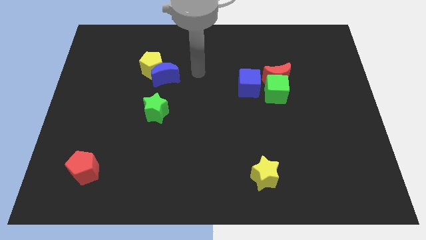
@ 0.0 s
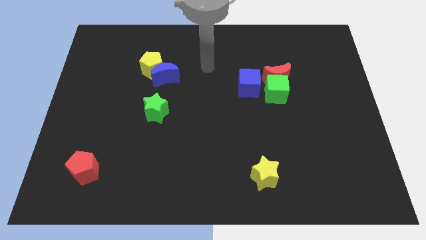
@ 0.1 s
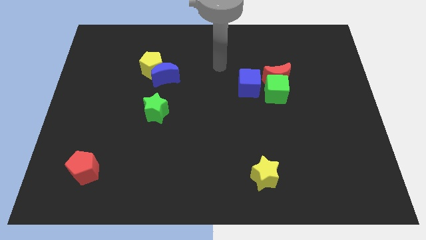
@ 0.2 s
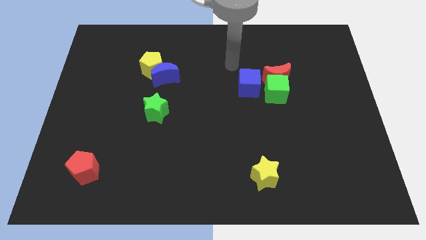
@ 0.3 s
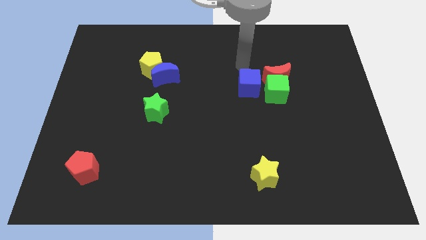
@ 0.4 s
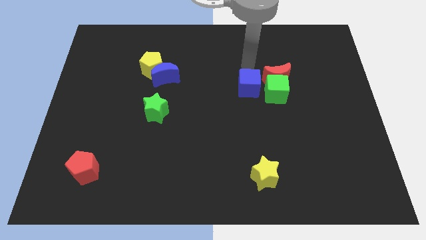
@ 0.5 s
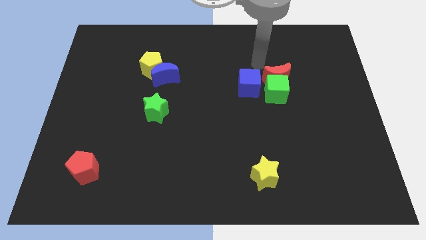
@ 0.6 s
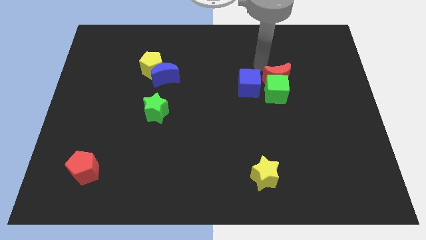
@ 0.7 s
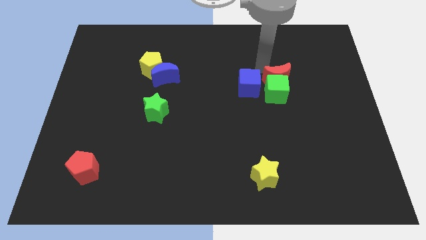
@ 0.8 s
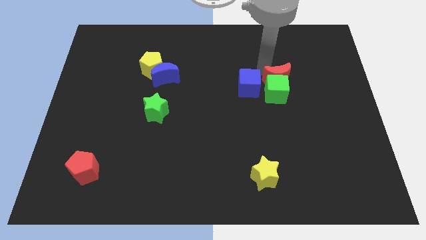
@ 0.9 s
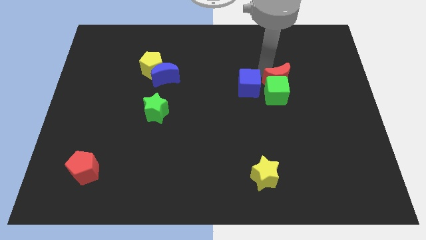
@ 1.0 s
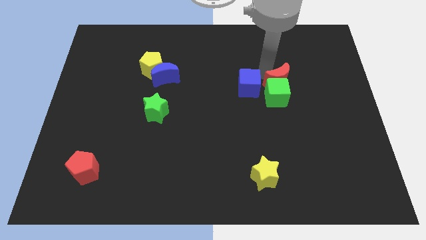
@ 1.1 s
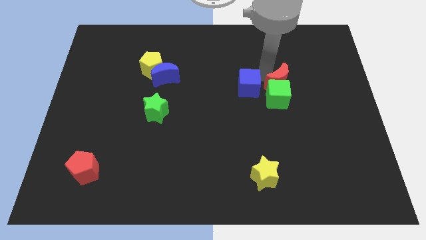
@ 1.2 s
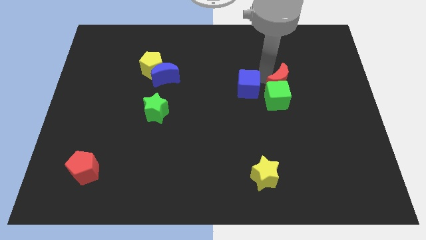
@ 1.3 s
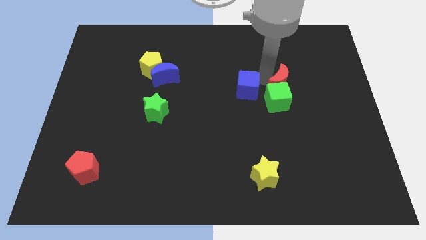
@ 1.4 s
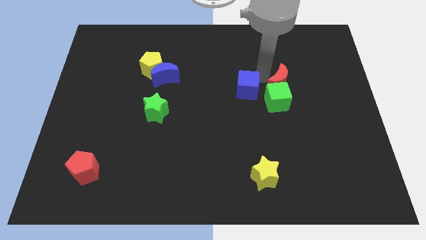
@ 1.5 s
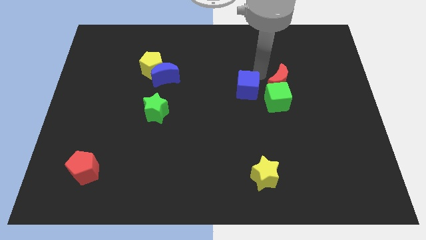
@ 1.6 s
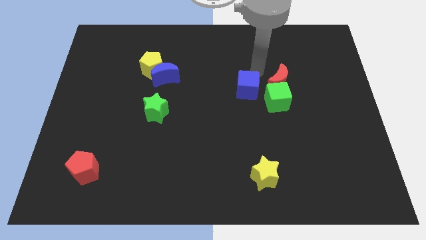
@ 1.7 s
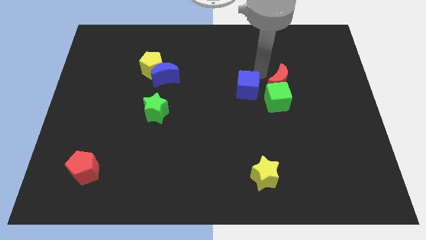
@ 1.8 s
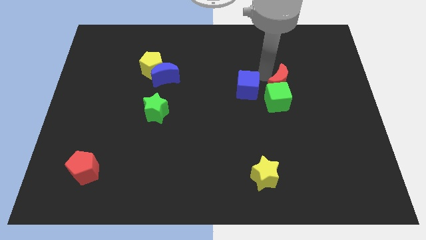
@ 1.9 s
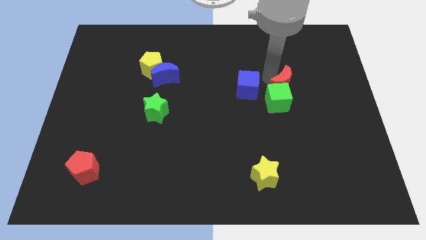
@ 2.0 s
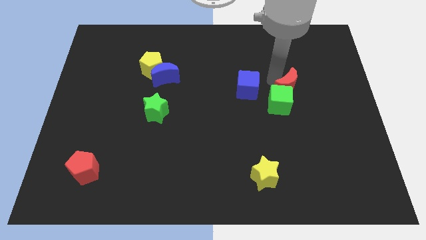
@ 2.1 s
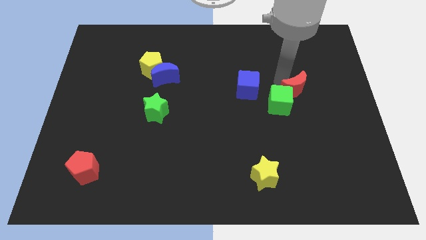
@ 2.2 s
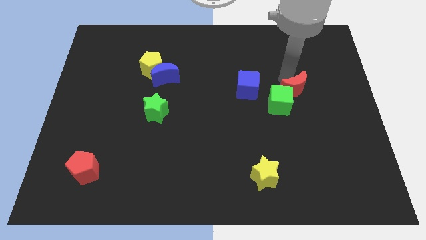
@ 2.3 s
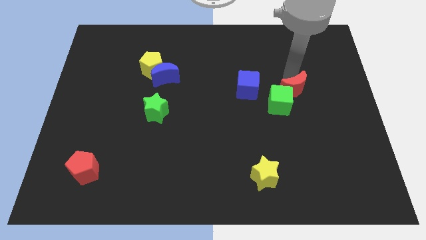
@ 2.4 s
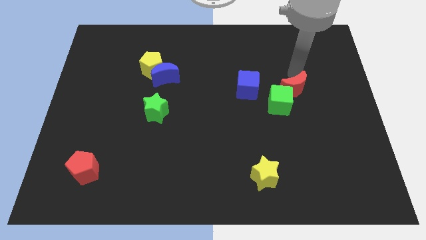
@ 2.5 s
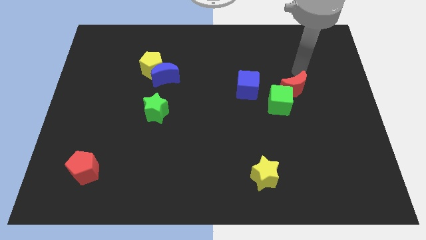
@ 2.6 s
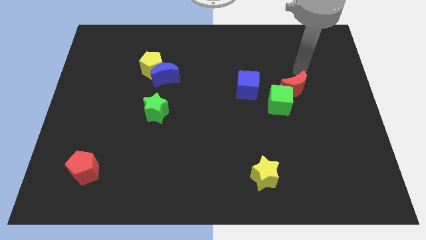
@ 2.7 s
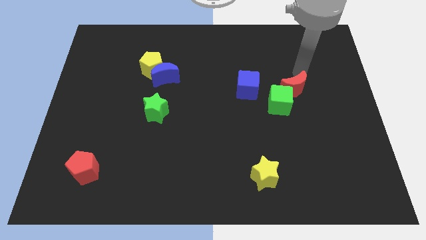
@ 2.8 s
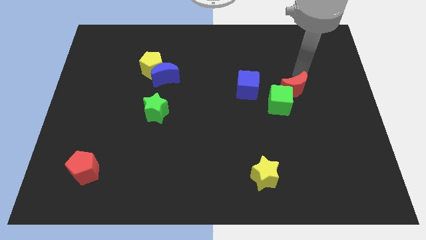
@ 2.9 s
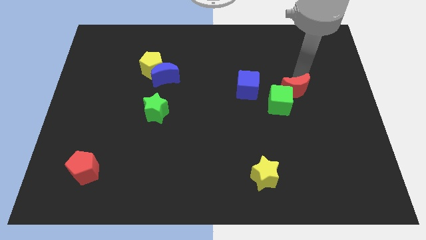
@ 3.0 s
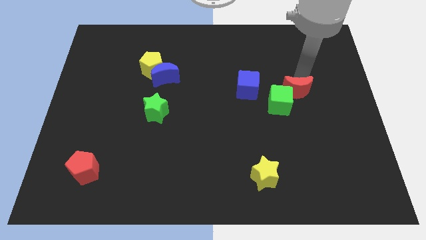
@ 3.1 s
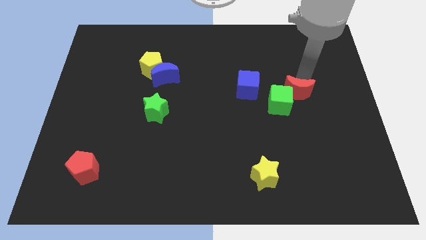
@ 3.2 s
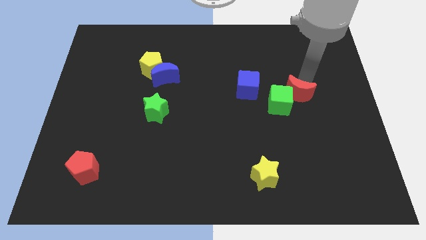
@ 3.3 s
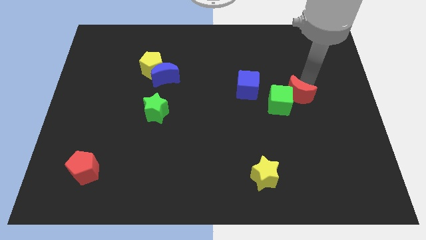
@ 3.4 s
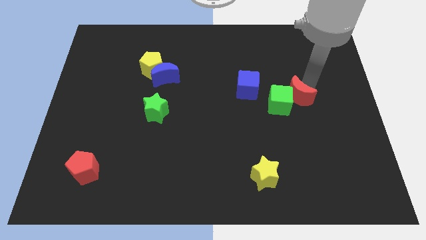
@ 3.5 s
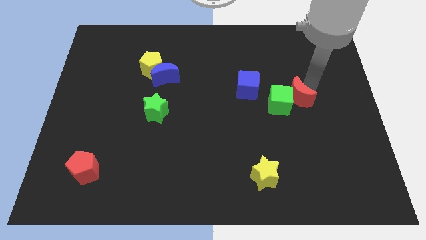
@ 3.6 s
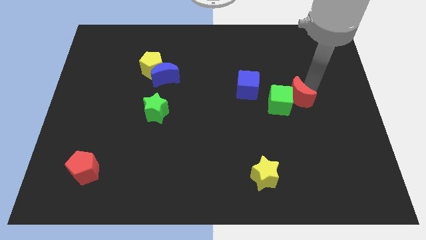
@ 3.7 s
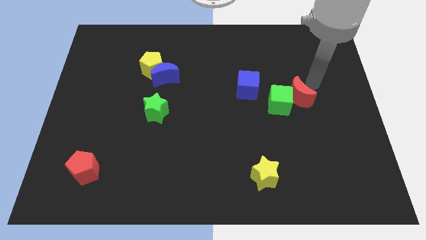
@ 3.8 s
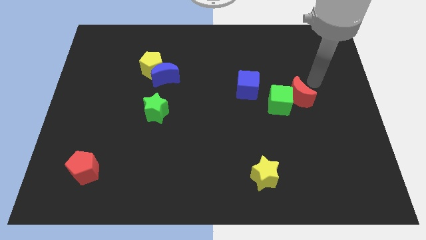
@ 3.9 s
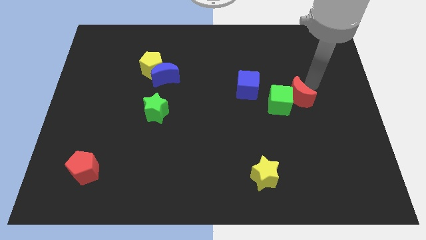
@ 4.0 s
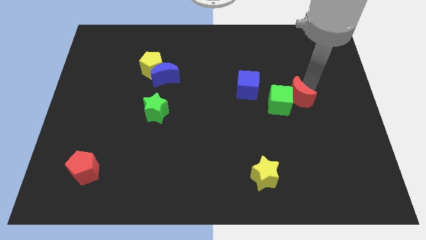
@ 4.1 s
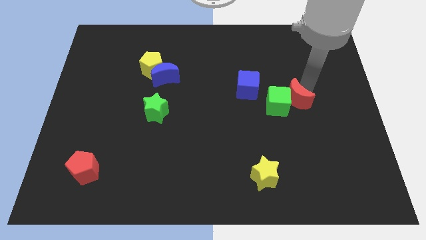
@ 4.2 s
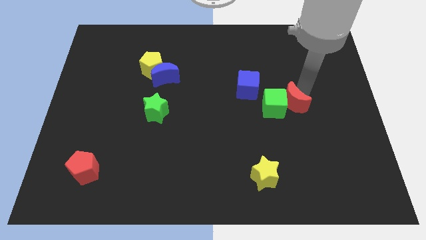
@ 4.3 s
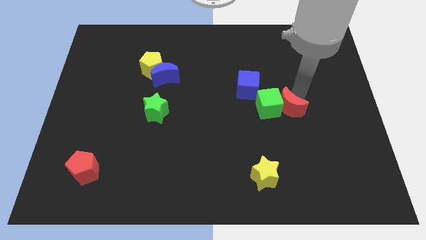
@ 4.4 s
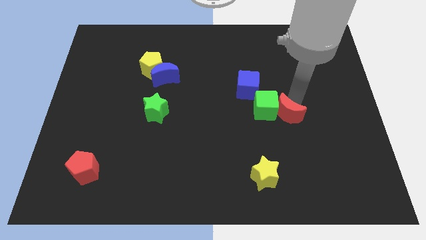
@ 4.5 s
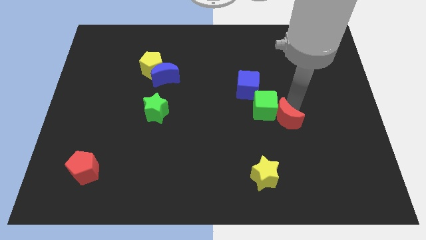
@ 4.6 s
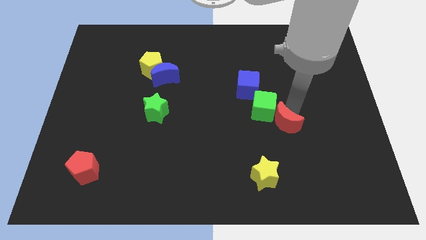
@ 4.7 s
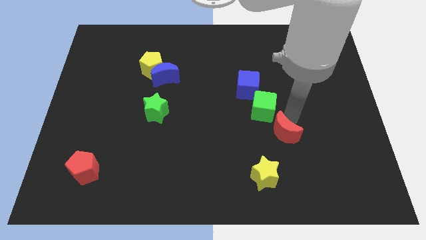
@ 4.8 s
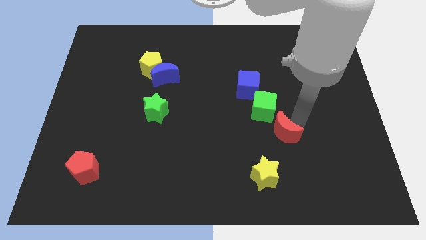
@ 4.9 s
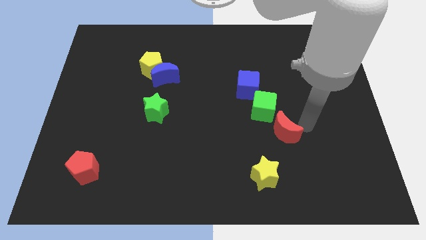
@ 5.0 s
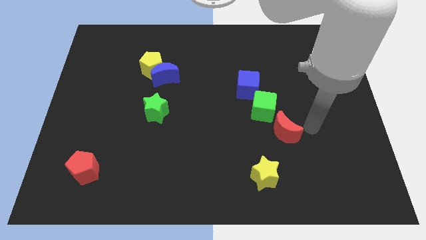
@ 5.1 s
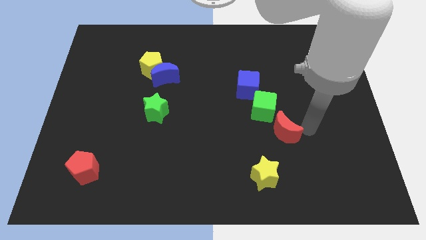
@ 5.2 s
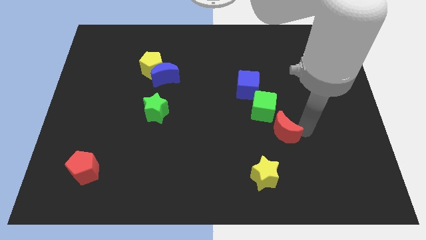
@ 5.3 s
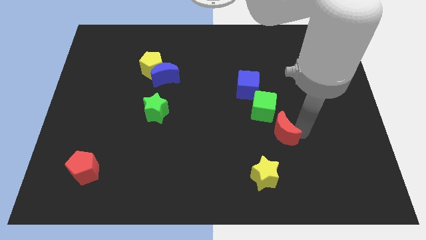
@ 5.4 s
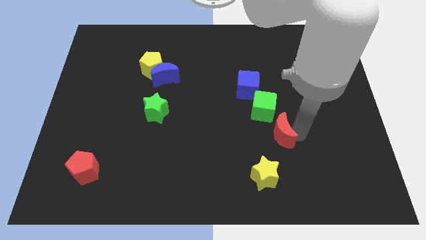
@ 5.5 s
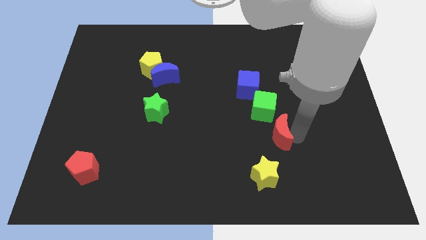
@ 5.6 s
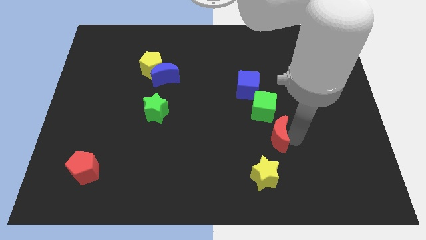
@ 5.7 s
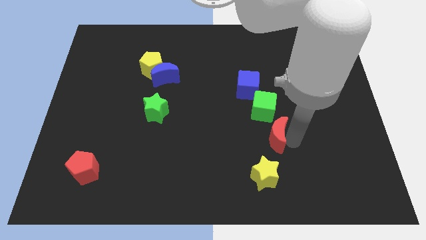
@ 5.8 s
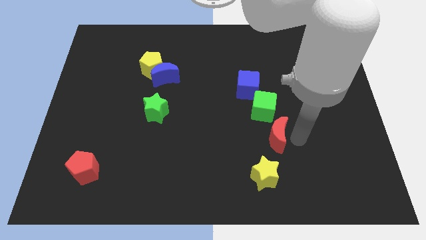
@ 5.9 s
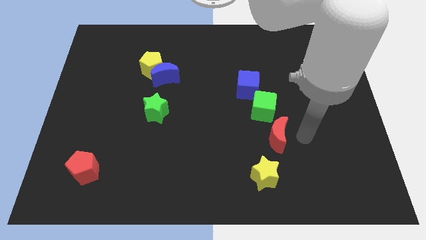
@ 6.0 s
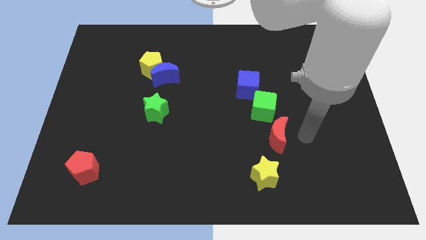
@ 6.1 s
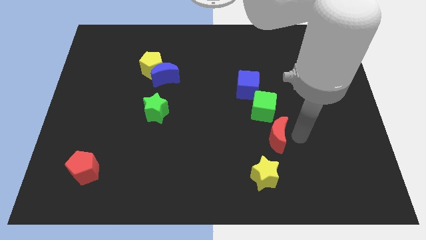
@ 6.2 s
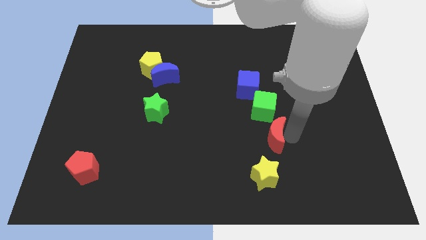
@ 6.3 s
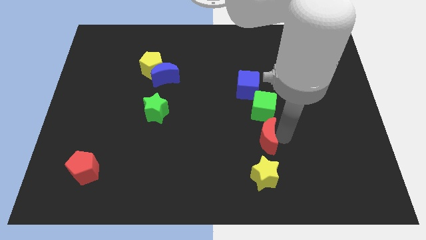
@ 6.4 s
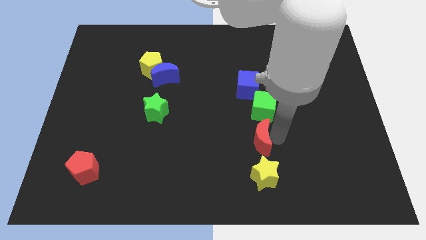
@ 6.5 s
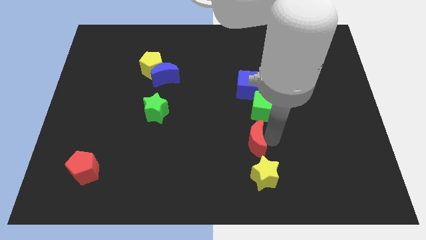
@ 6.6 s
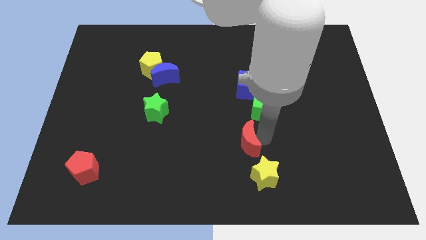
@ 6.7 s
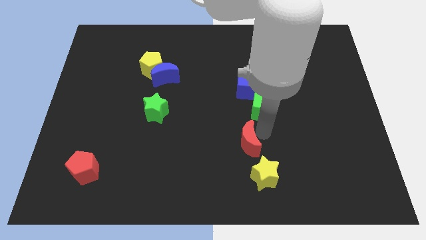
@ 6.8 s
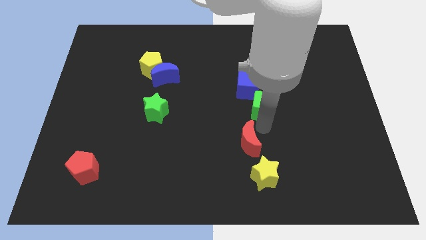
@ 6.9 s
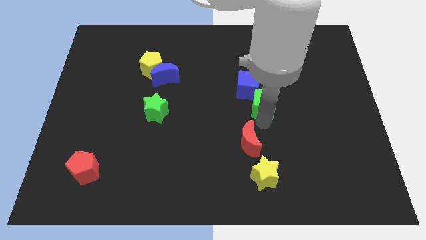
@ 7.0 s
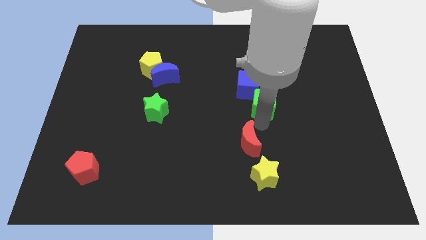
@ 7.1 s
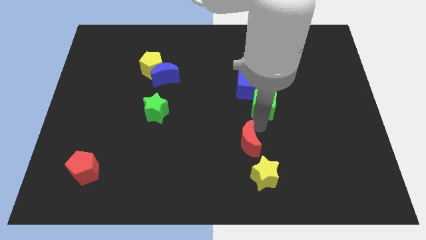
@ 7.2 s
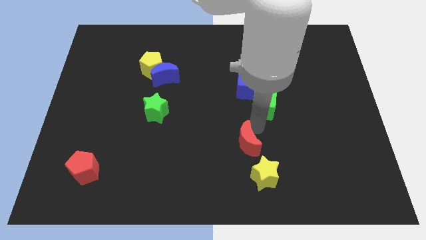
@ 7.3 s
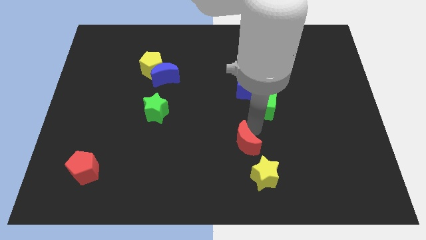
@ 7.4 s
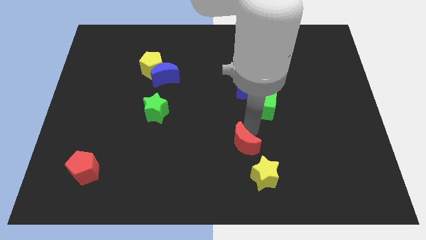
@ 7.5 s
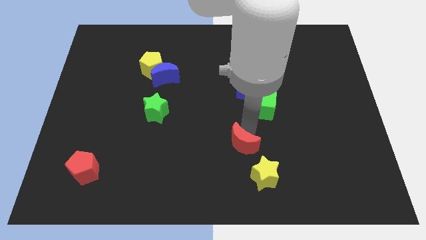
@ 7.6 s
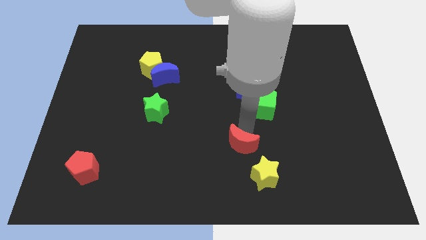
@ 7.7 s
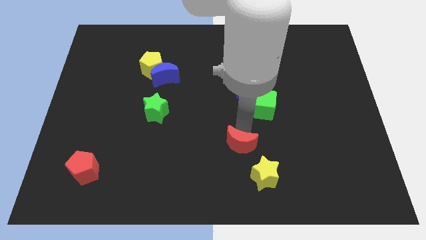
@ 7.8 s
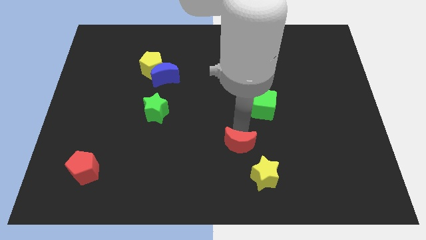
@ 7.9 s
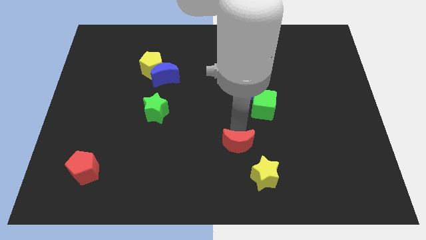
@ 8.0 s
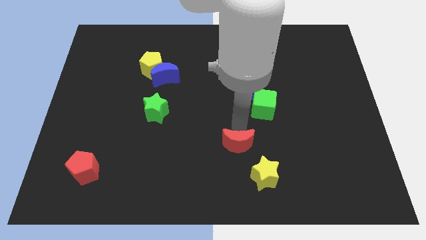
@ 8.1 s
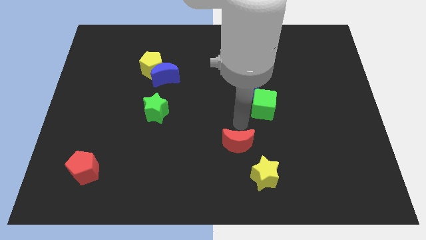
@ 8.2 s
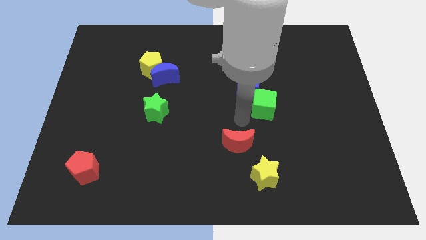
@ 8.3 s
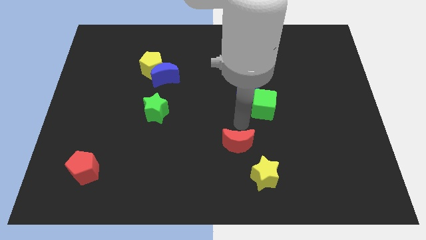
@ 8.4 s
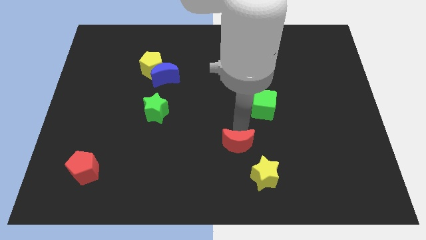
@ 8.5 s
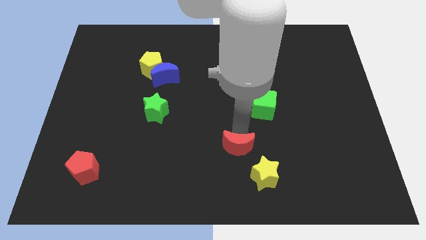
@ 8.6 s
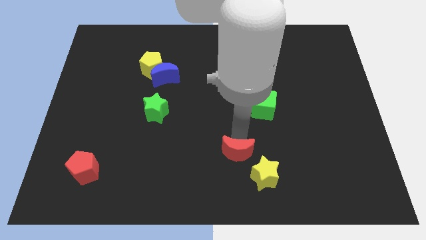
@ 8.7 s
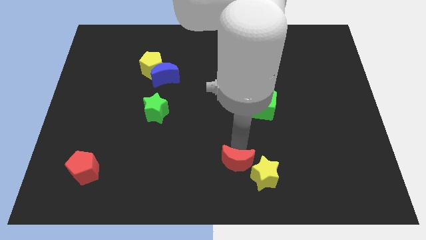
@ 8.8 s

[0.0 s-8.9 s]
slide the red moon to the bottom
